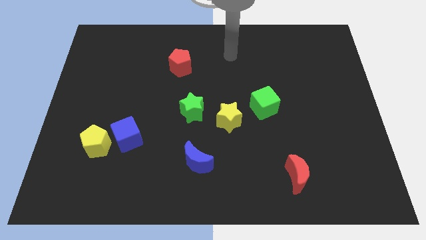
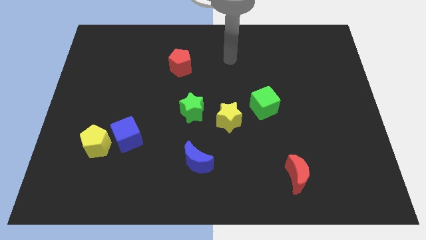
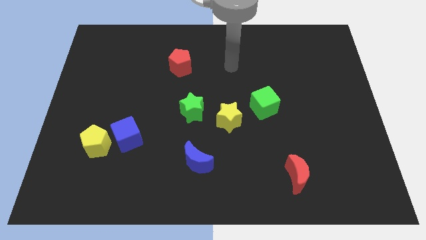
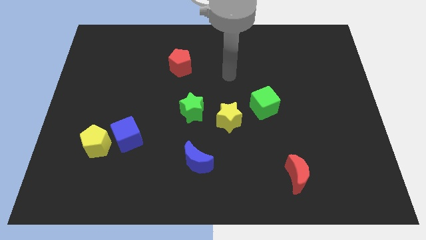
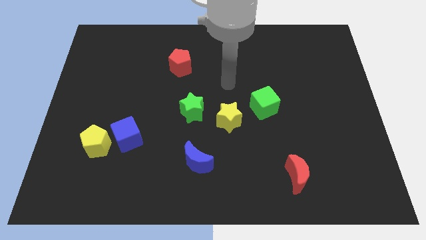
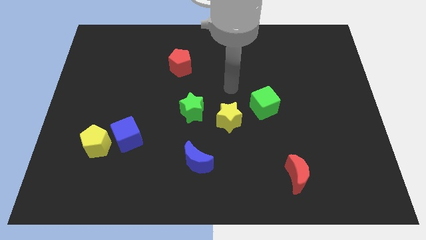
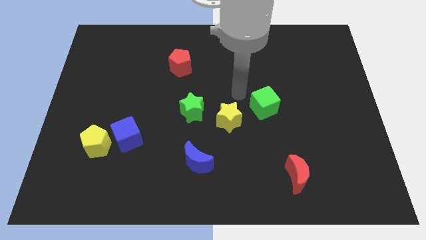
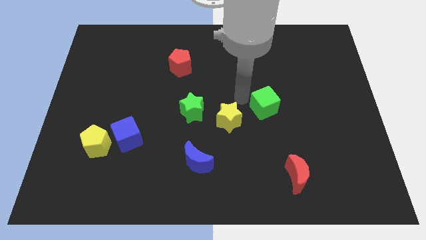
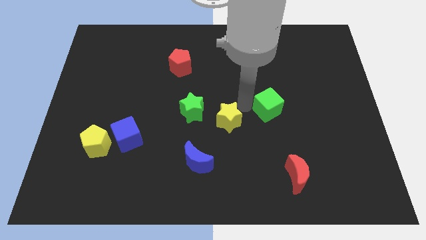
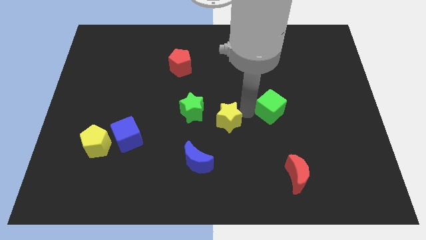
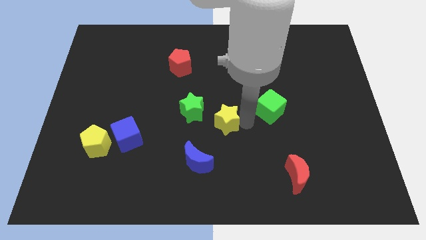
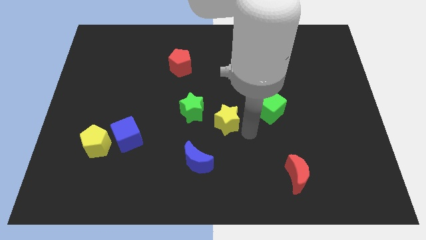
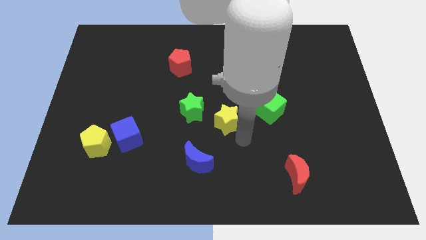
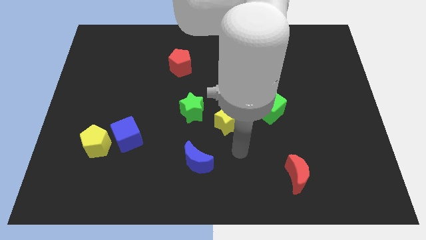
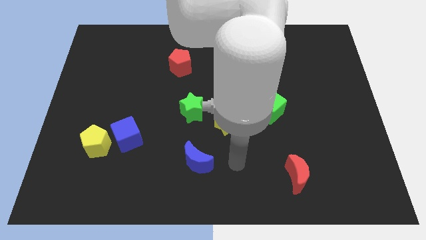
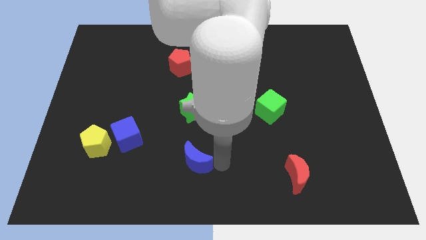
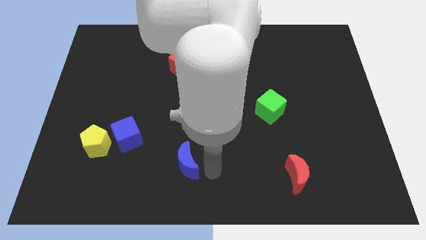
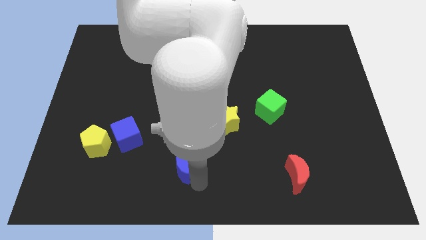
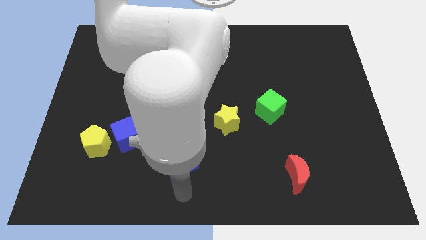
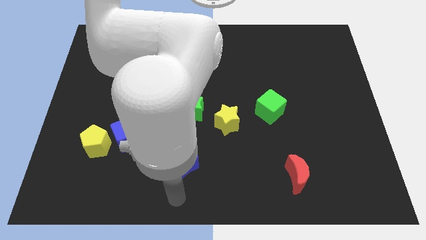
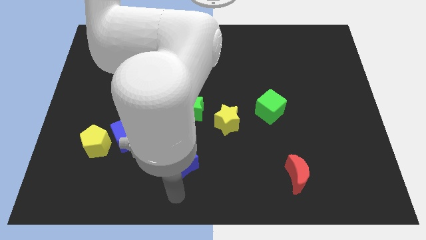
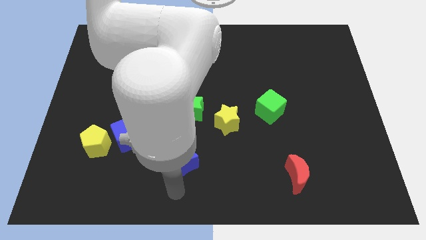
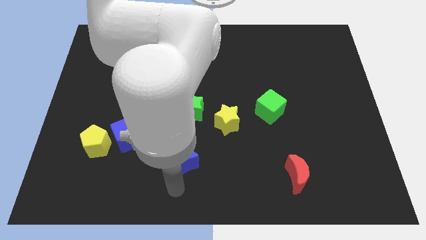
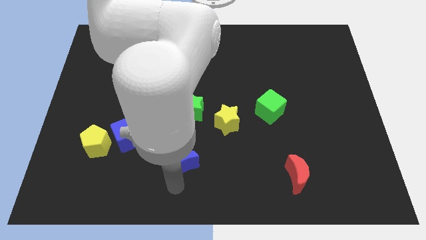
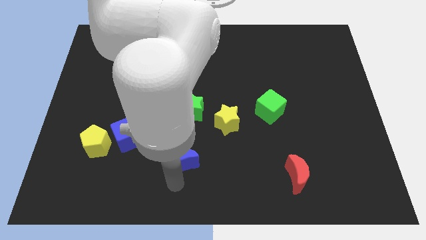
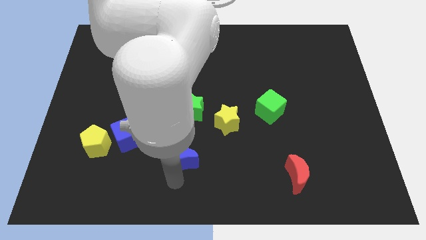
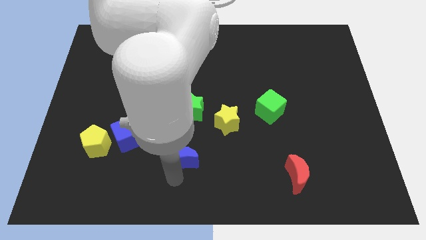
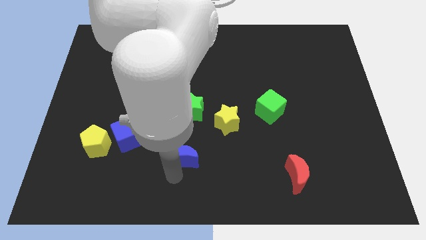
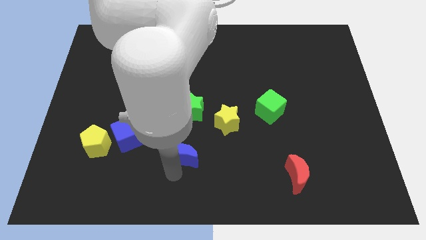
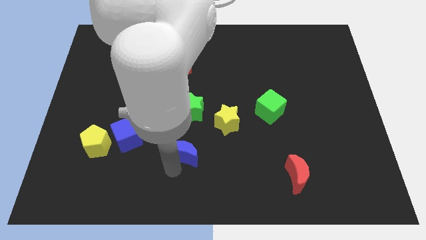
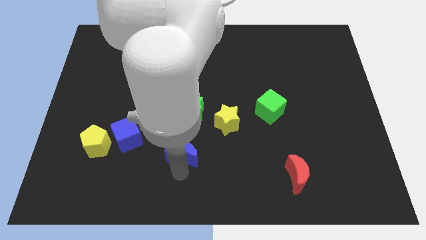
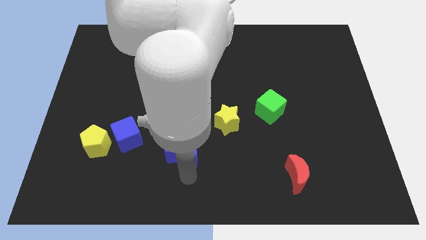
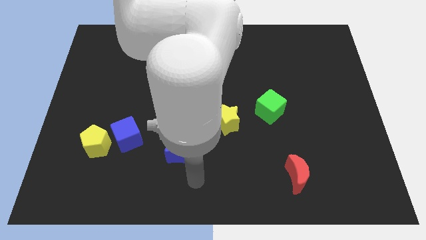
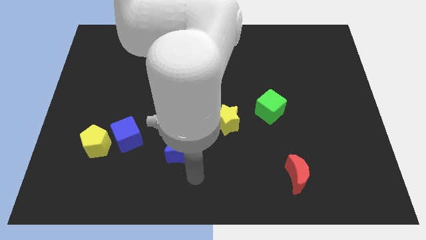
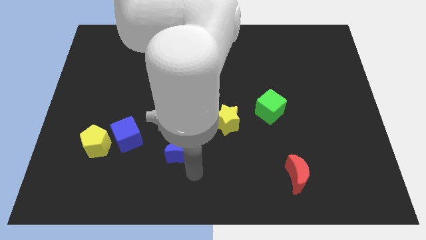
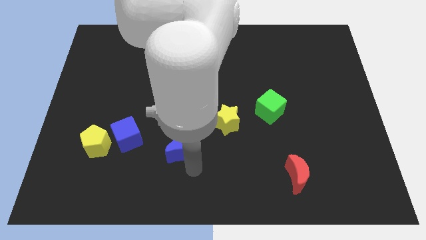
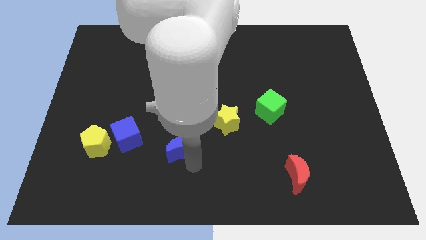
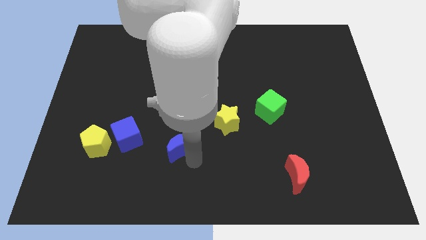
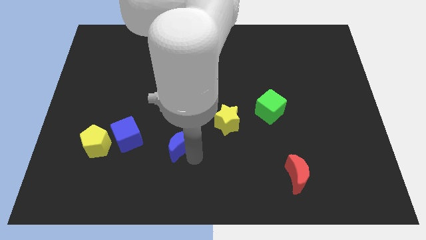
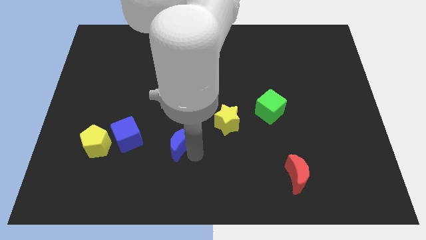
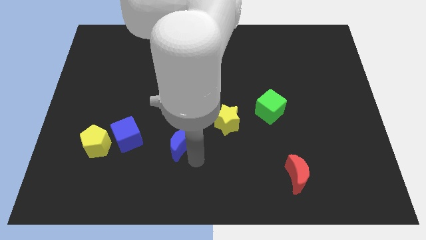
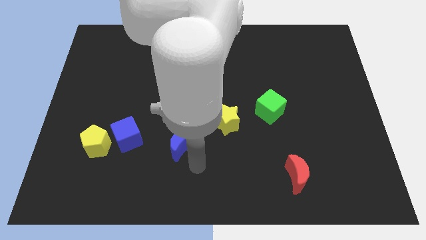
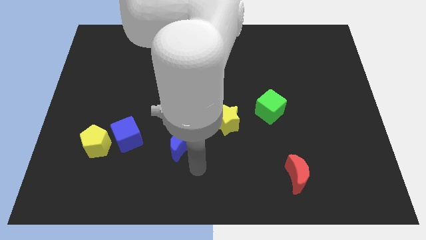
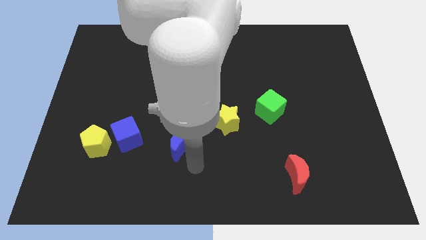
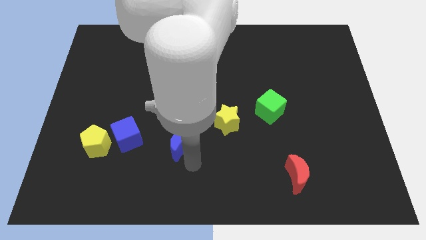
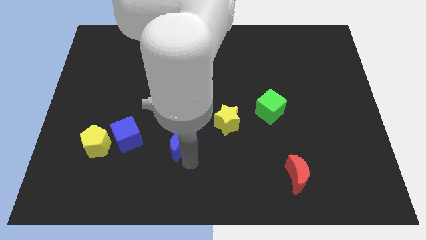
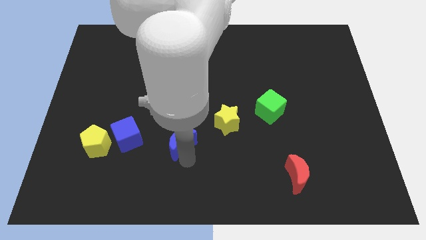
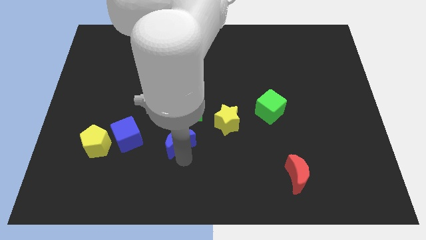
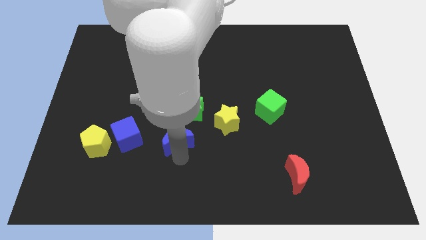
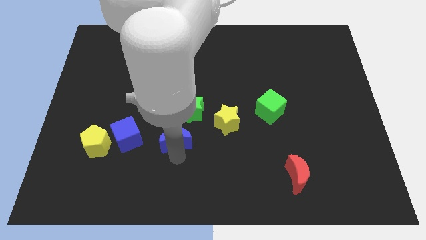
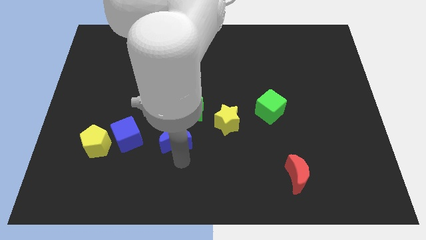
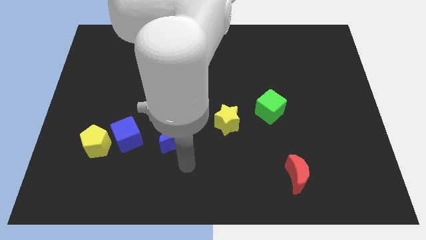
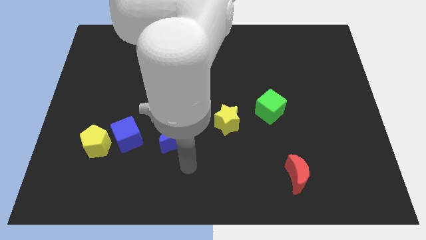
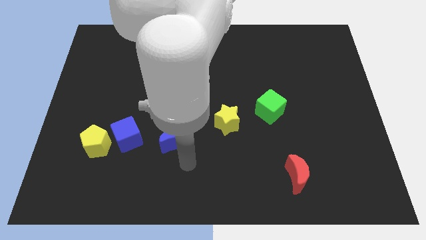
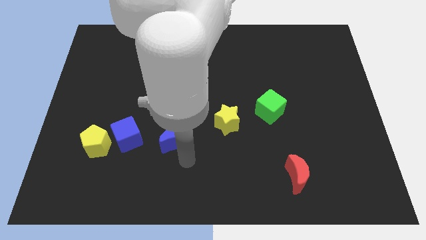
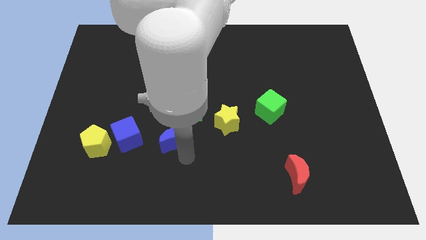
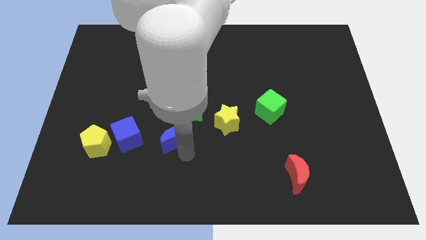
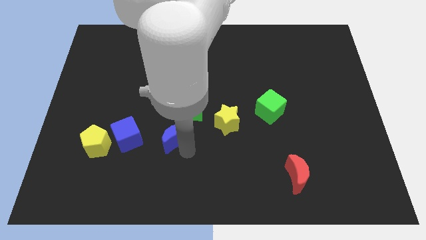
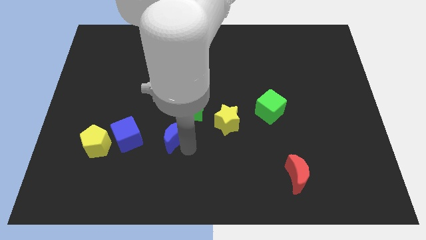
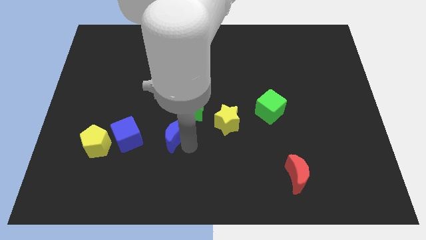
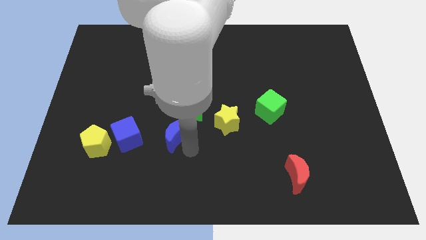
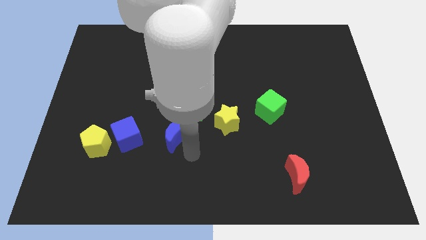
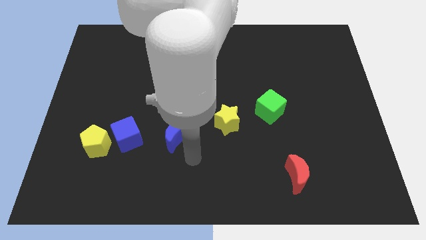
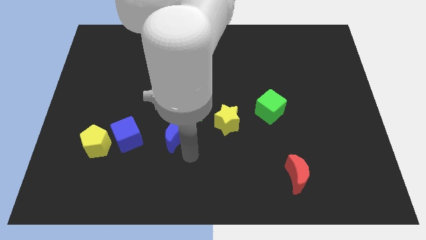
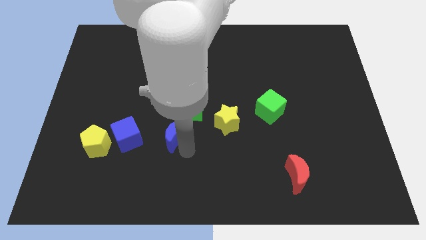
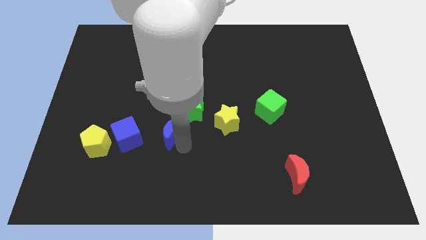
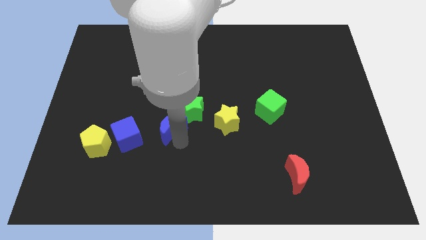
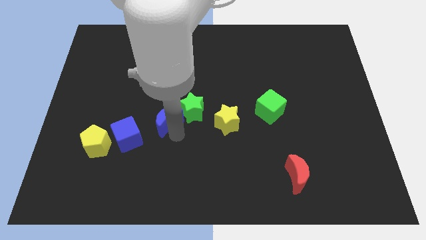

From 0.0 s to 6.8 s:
put the blue moon left of the green star

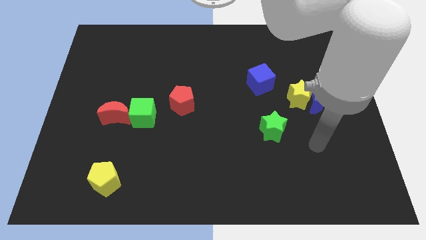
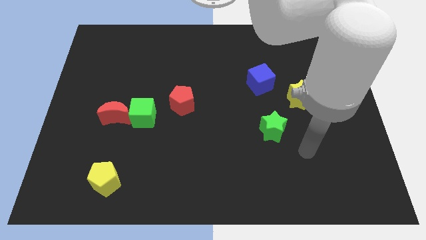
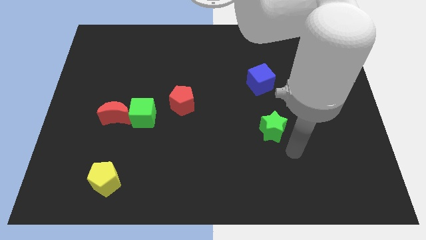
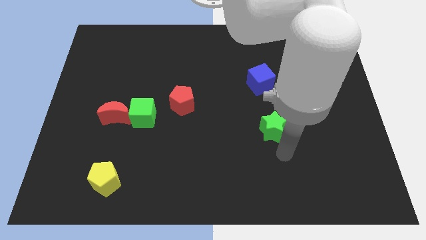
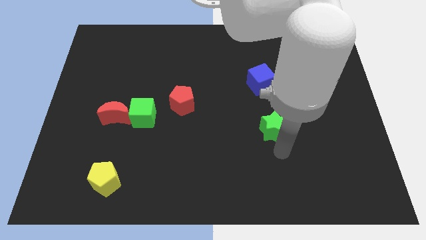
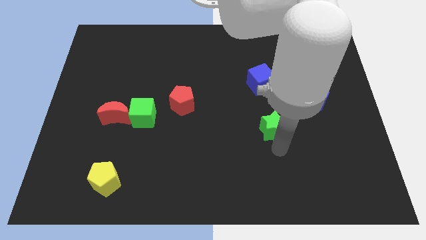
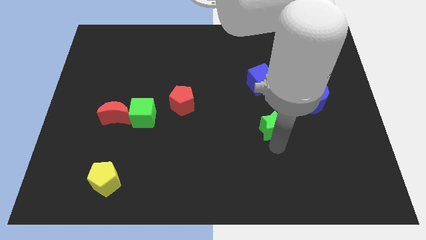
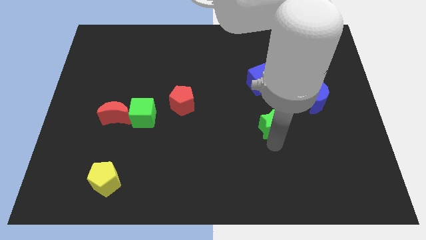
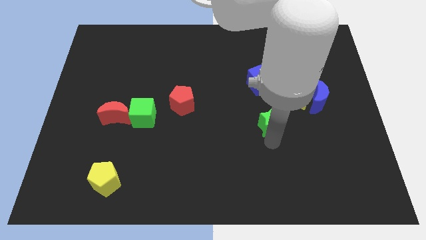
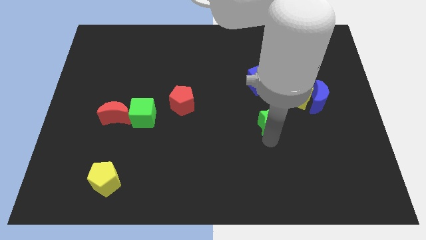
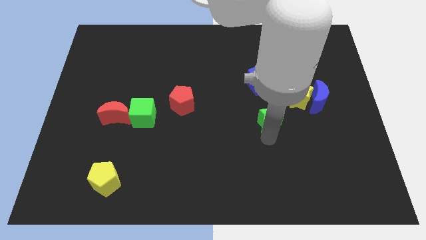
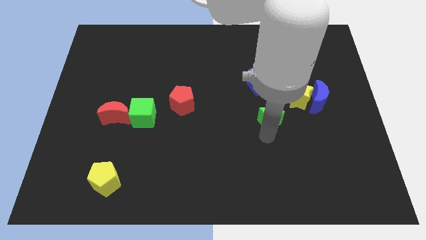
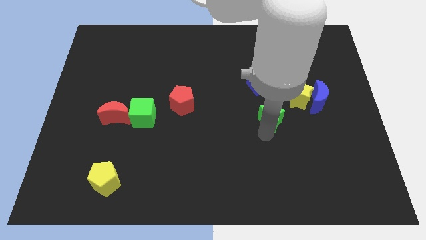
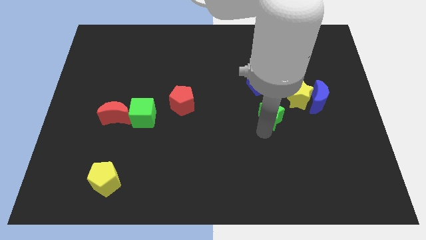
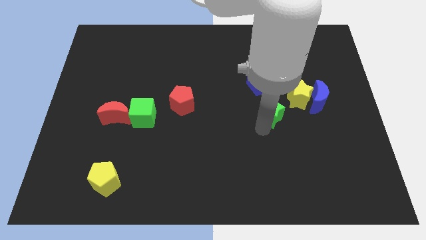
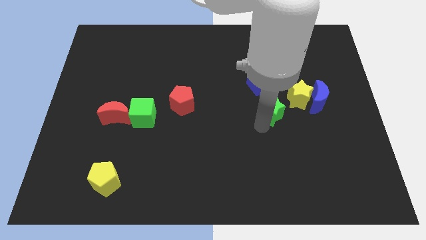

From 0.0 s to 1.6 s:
slide the green star just left of the yellow star

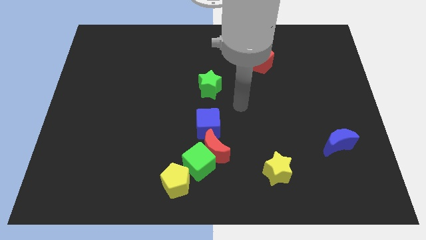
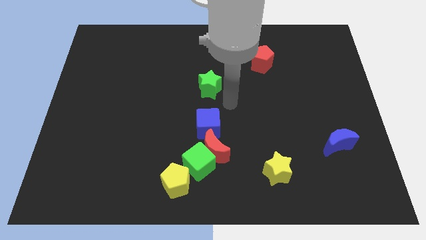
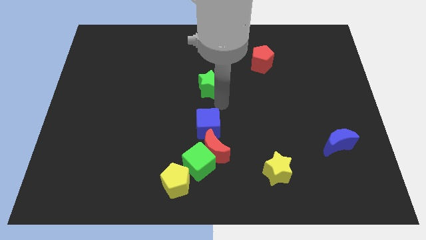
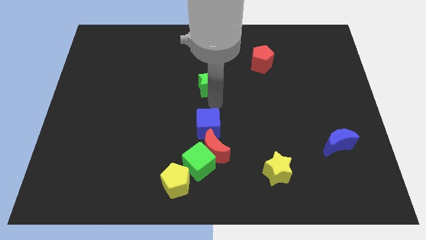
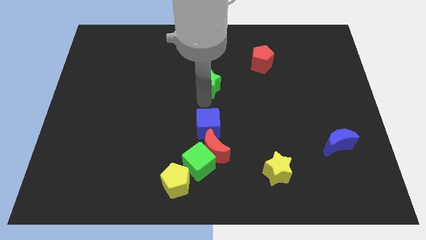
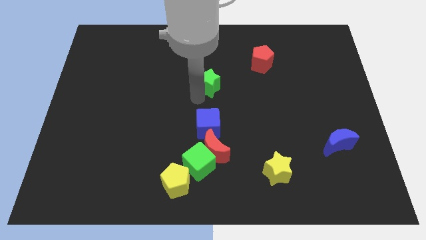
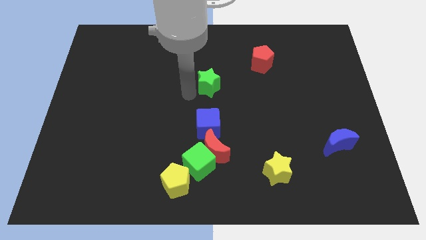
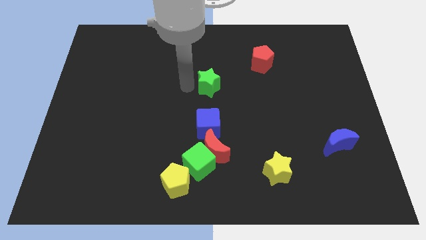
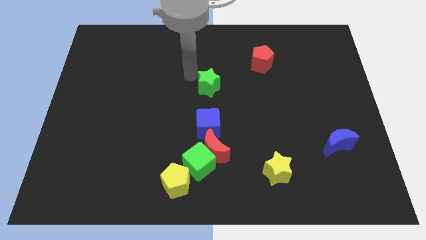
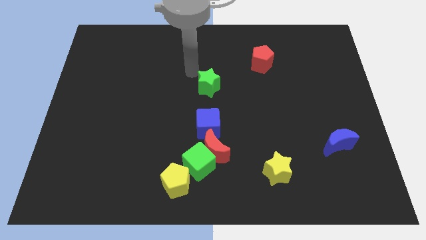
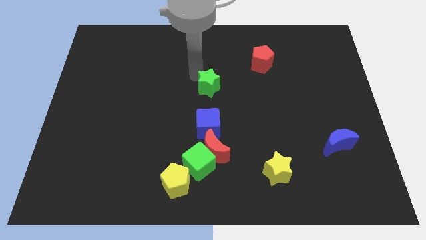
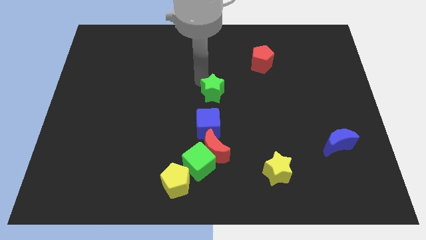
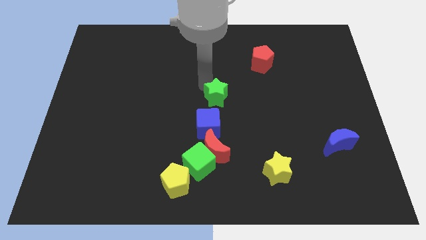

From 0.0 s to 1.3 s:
slide the green star diagonally up and to the right of the blue cube
